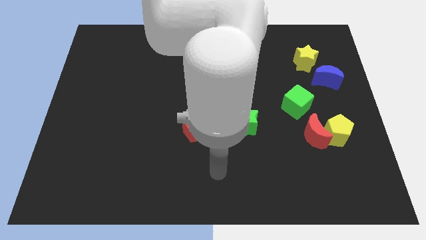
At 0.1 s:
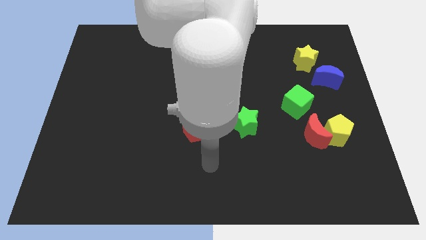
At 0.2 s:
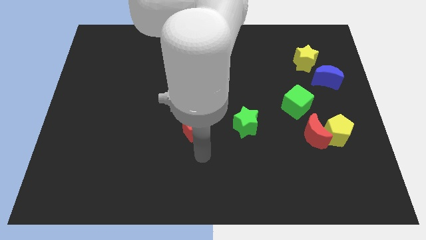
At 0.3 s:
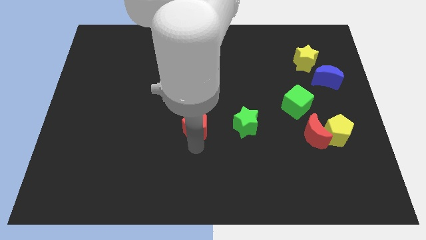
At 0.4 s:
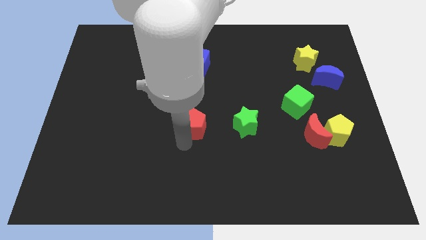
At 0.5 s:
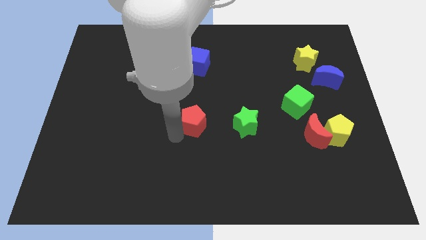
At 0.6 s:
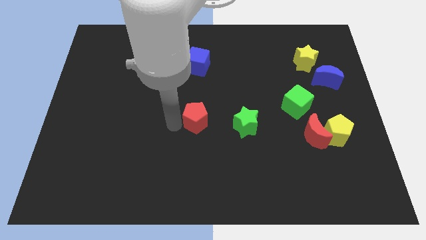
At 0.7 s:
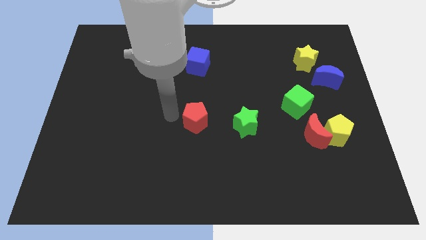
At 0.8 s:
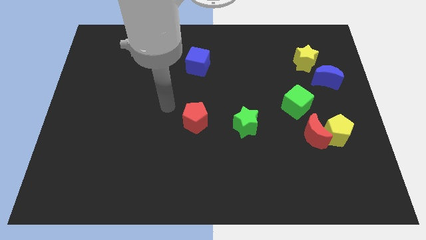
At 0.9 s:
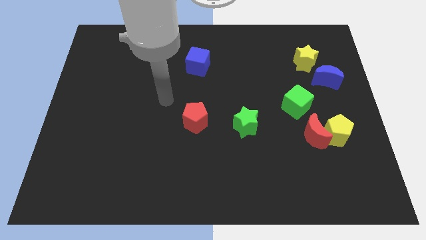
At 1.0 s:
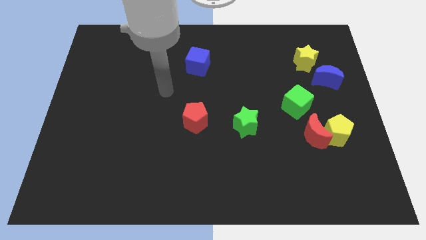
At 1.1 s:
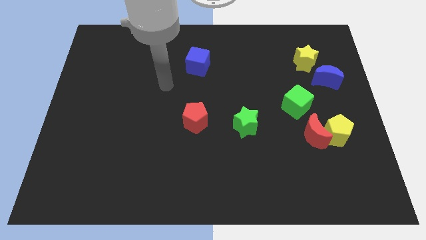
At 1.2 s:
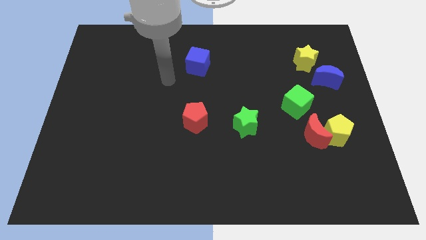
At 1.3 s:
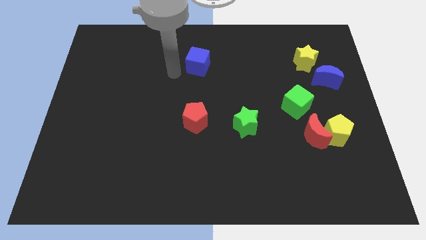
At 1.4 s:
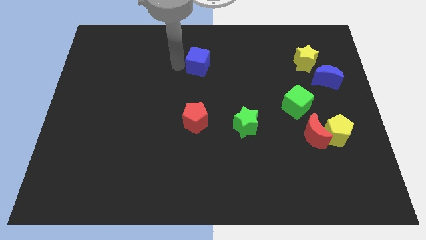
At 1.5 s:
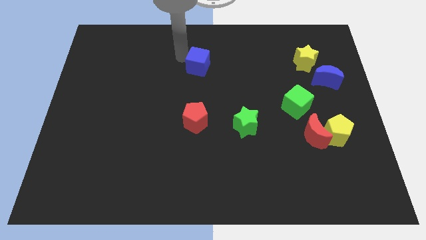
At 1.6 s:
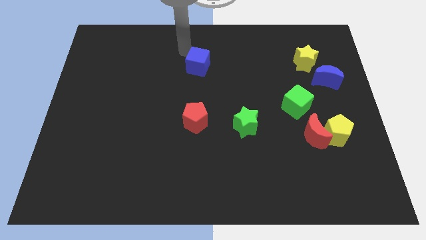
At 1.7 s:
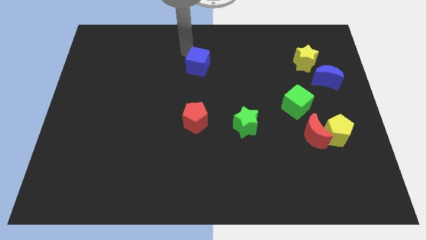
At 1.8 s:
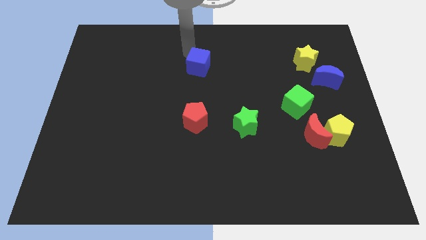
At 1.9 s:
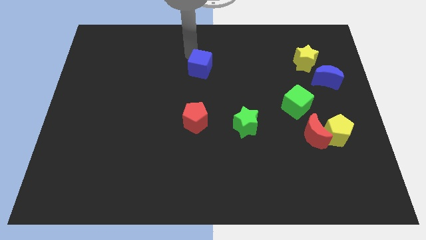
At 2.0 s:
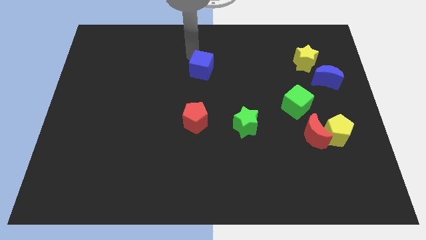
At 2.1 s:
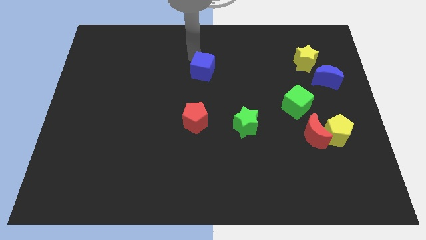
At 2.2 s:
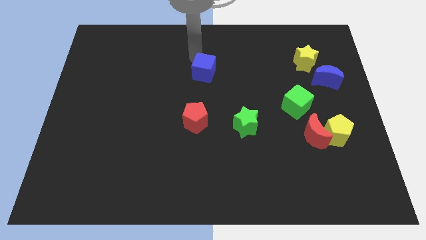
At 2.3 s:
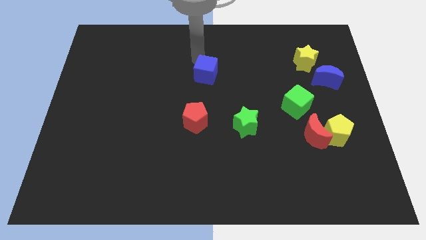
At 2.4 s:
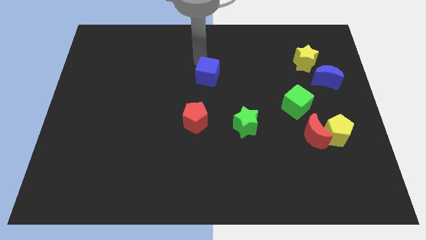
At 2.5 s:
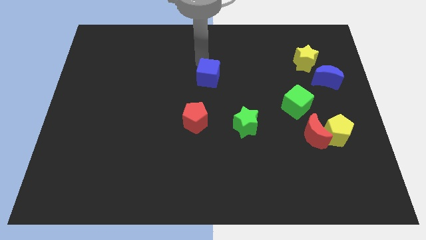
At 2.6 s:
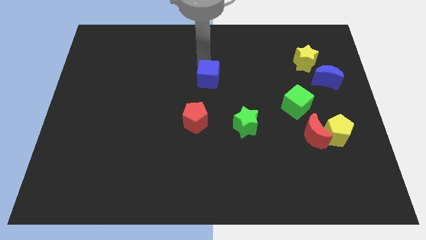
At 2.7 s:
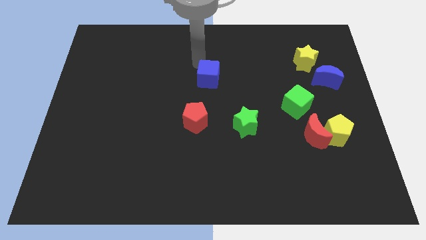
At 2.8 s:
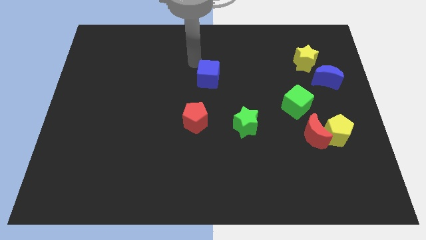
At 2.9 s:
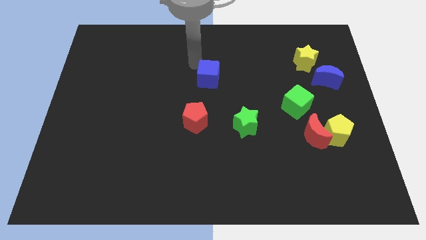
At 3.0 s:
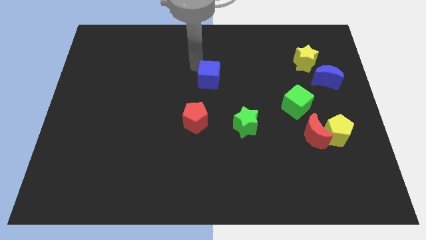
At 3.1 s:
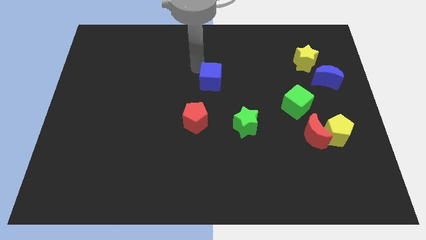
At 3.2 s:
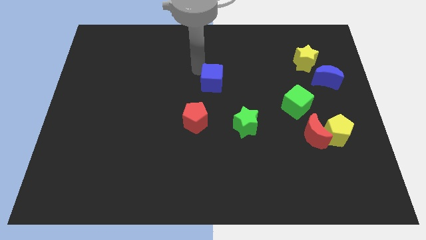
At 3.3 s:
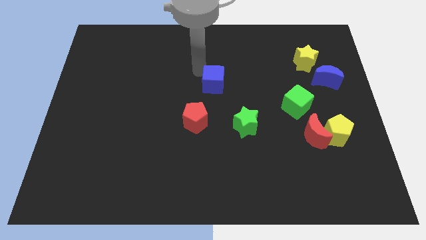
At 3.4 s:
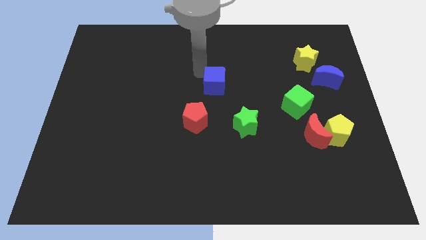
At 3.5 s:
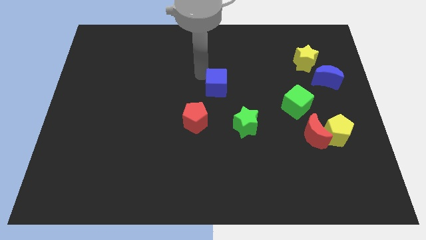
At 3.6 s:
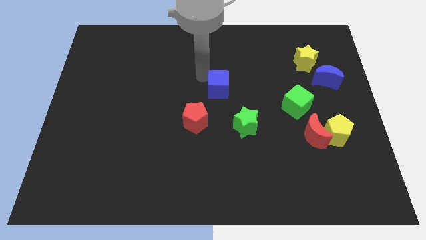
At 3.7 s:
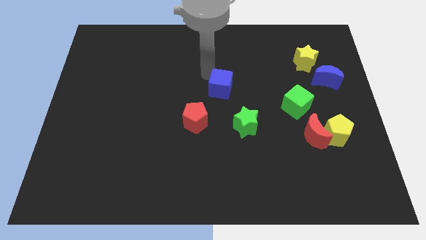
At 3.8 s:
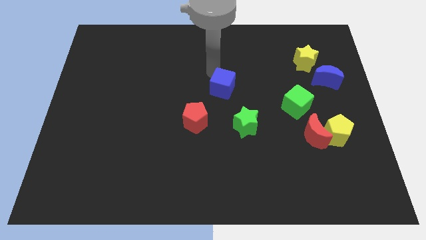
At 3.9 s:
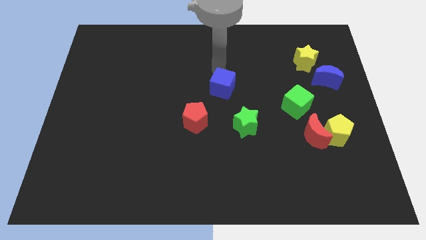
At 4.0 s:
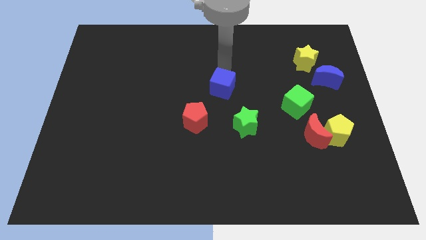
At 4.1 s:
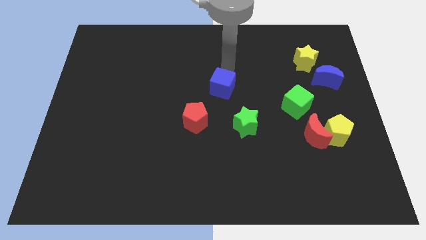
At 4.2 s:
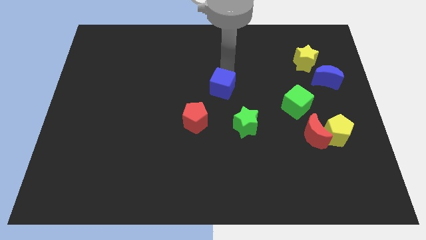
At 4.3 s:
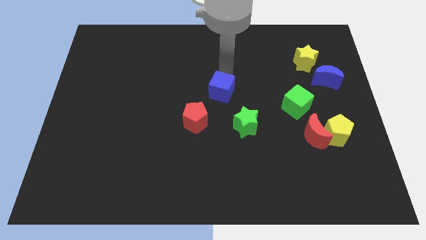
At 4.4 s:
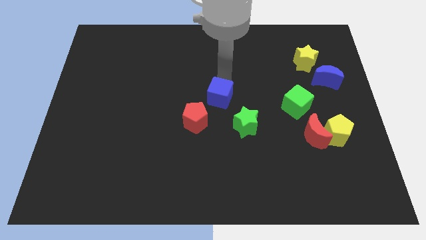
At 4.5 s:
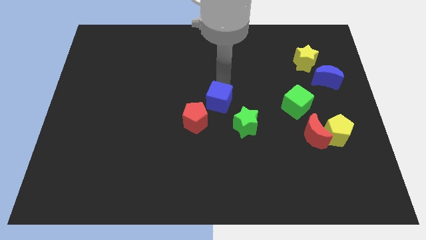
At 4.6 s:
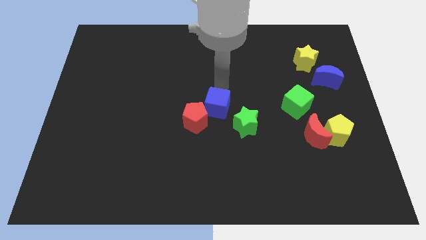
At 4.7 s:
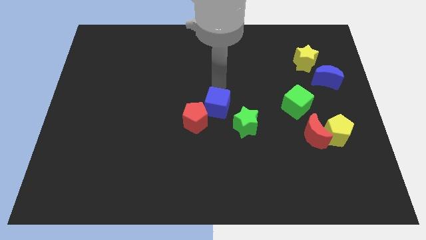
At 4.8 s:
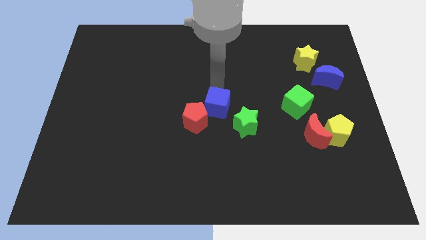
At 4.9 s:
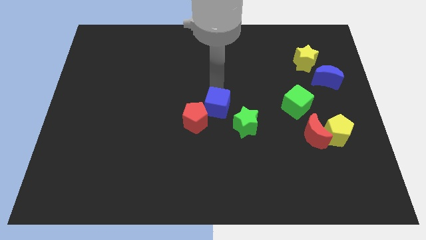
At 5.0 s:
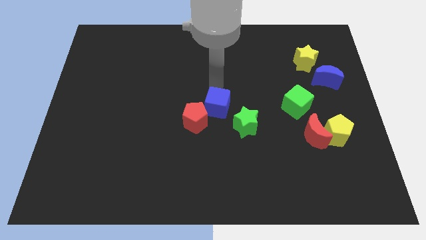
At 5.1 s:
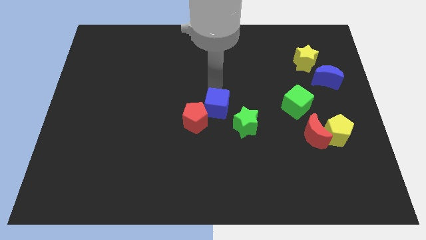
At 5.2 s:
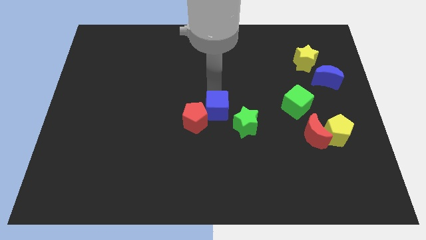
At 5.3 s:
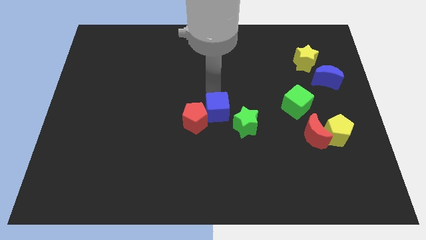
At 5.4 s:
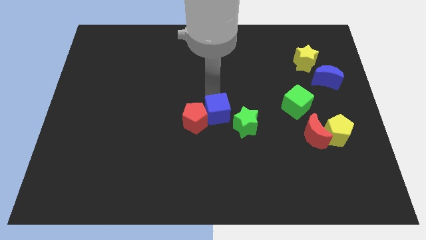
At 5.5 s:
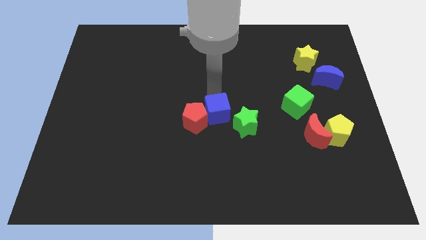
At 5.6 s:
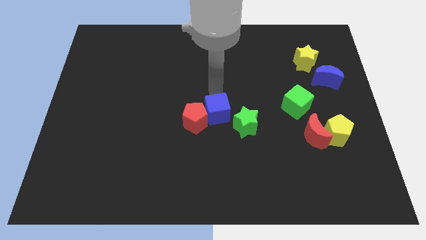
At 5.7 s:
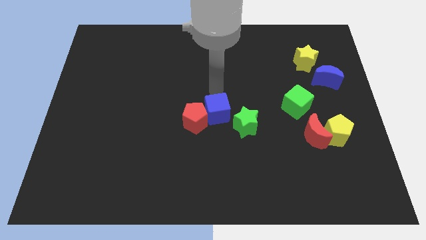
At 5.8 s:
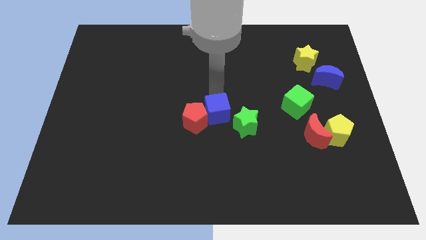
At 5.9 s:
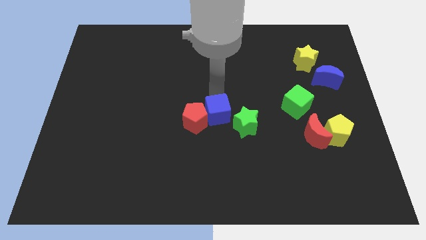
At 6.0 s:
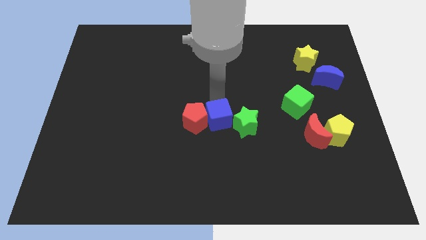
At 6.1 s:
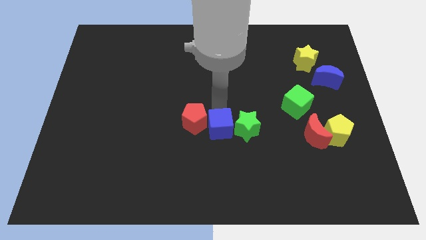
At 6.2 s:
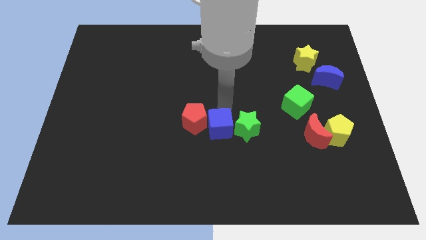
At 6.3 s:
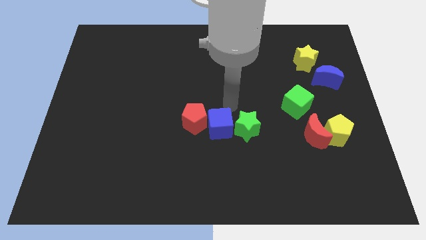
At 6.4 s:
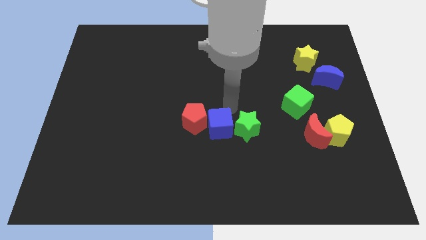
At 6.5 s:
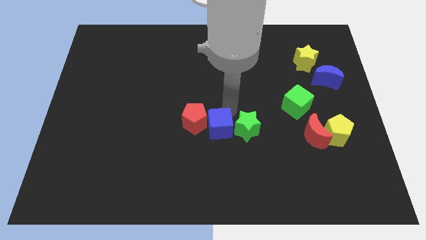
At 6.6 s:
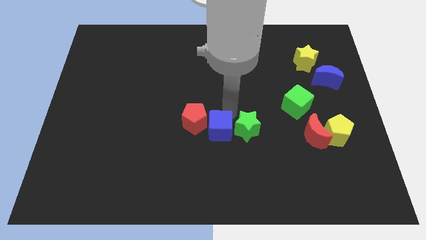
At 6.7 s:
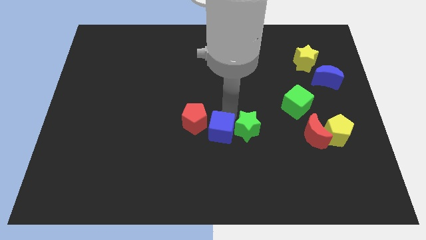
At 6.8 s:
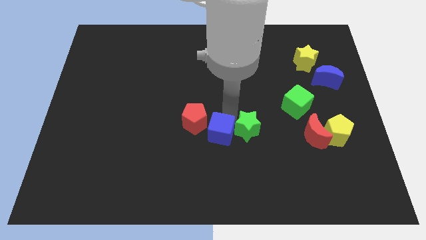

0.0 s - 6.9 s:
move the blue cube downwards

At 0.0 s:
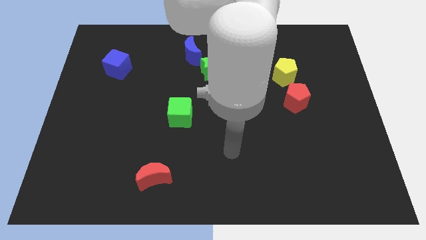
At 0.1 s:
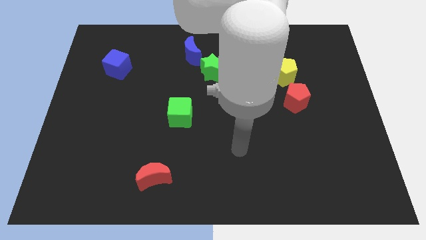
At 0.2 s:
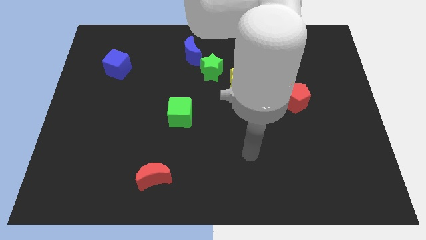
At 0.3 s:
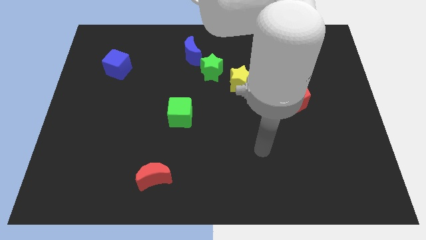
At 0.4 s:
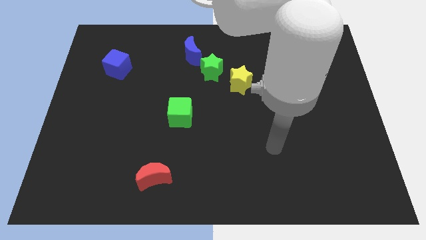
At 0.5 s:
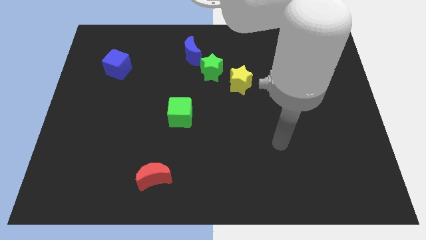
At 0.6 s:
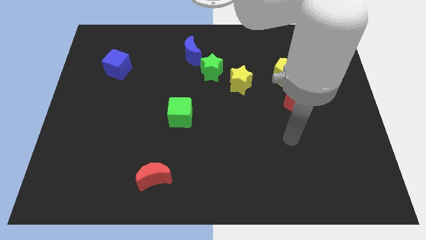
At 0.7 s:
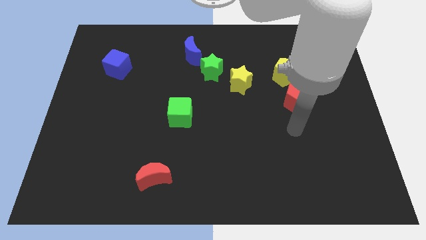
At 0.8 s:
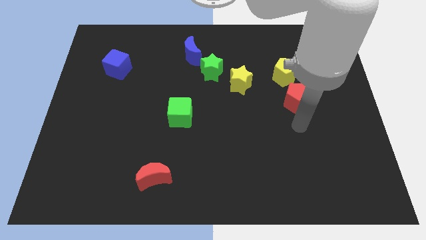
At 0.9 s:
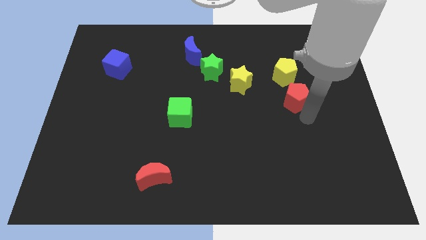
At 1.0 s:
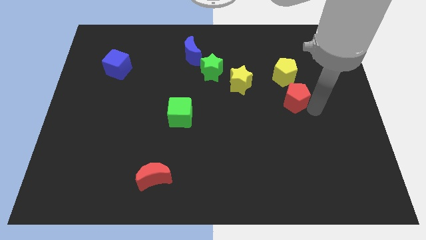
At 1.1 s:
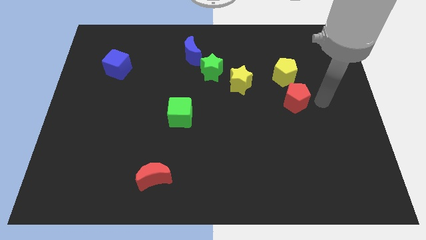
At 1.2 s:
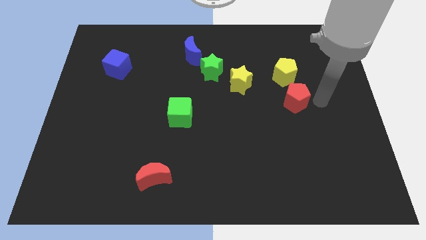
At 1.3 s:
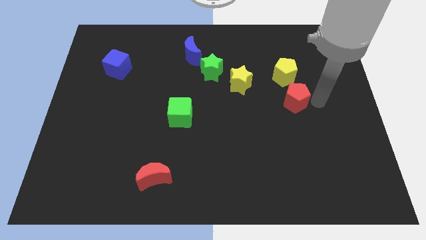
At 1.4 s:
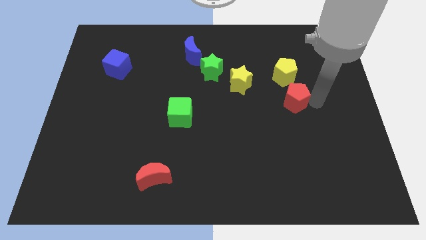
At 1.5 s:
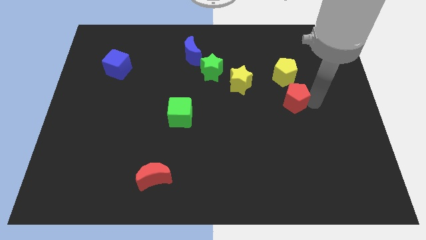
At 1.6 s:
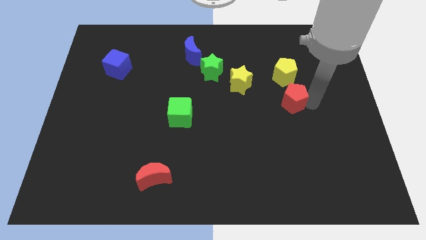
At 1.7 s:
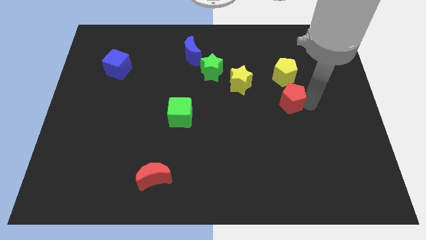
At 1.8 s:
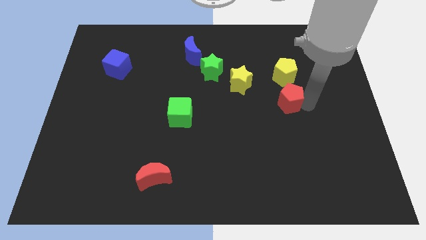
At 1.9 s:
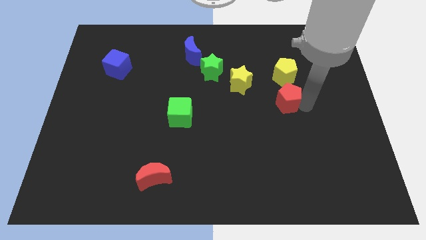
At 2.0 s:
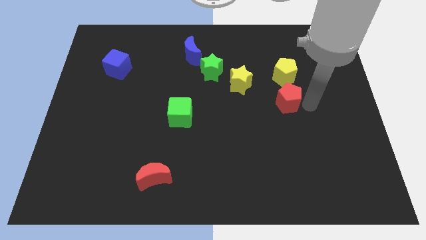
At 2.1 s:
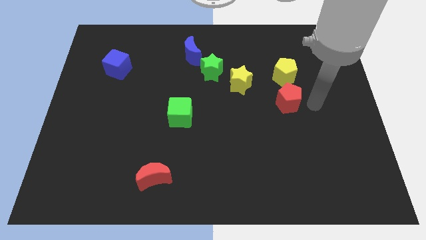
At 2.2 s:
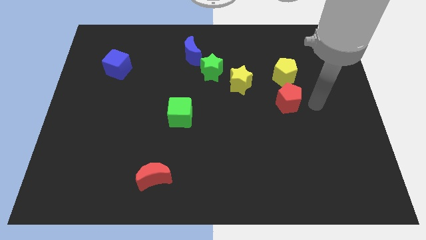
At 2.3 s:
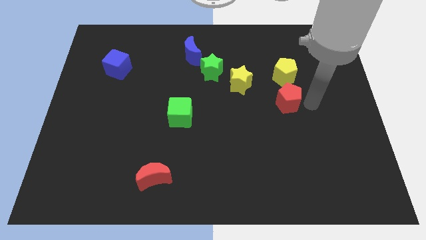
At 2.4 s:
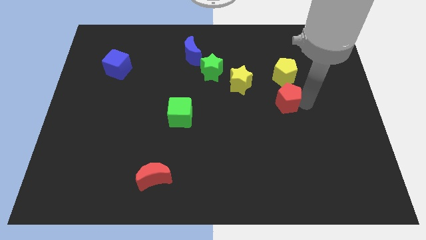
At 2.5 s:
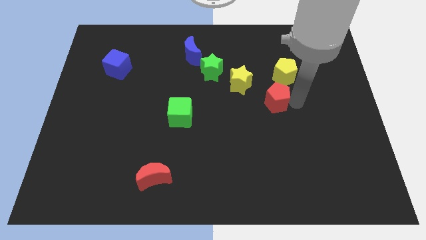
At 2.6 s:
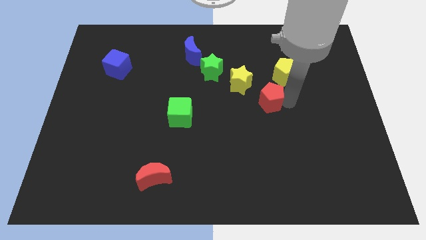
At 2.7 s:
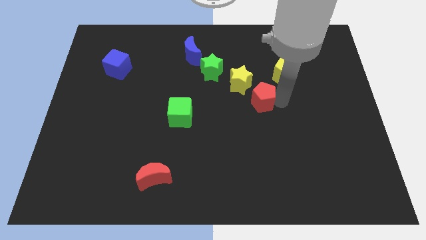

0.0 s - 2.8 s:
slide the red pentagon a little to the left
